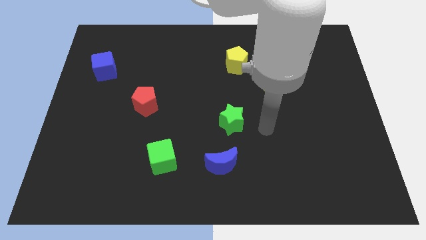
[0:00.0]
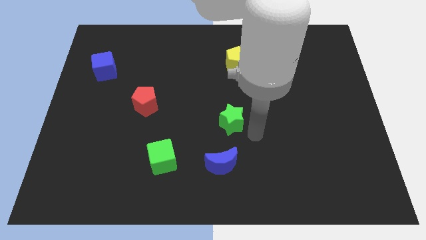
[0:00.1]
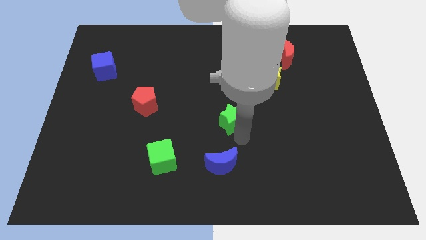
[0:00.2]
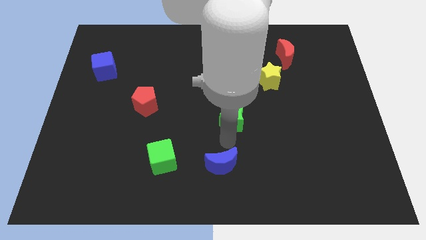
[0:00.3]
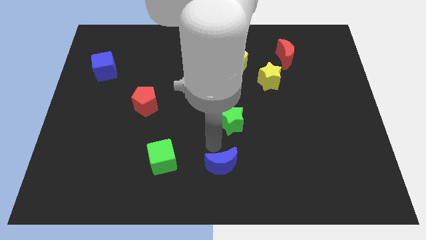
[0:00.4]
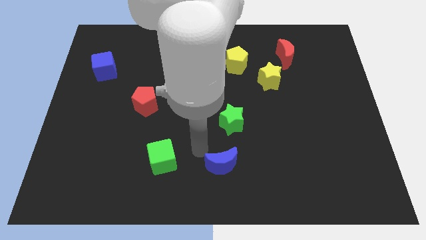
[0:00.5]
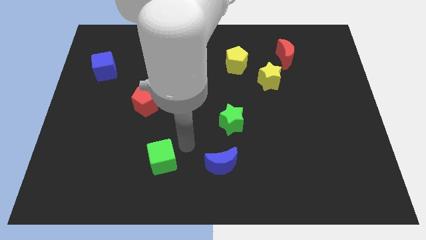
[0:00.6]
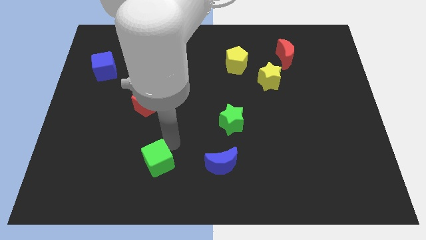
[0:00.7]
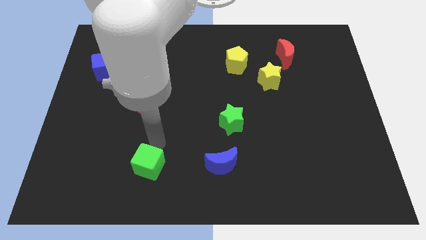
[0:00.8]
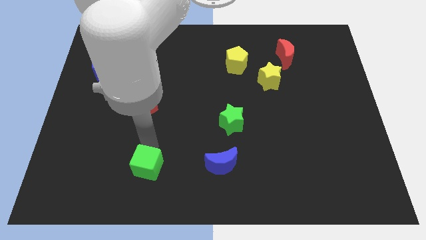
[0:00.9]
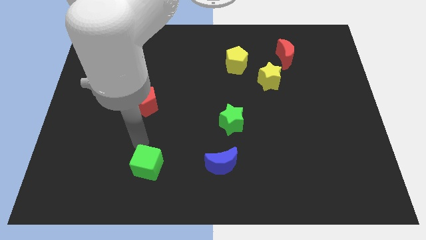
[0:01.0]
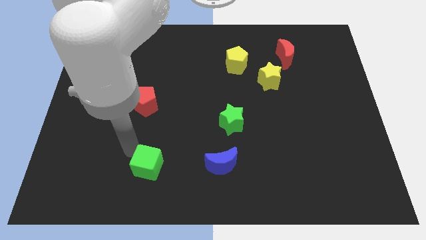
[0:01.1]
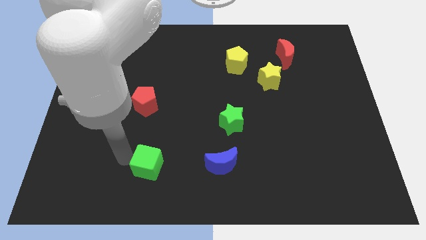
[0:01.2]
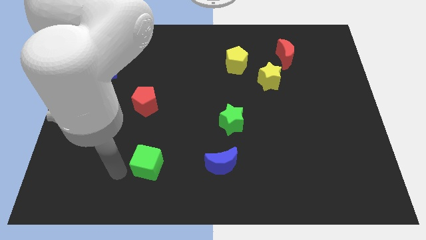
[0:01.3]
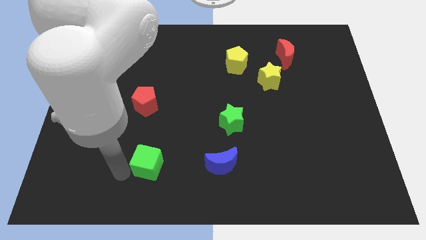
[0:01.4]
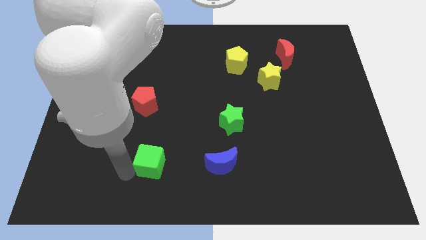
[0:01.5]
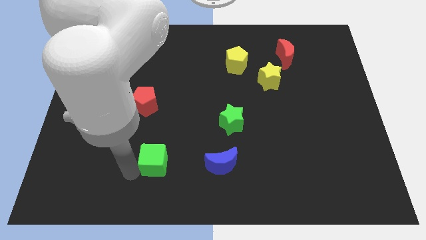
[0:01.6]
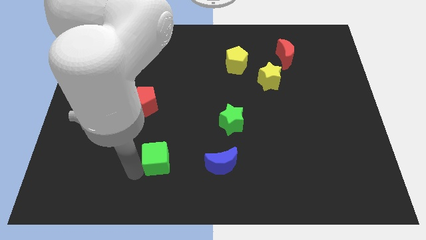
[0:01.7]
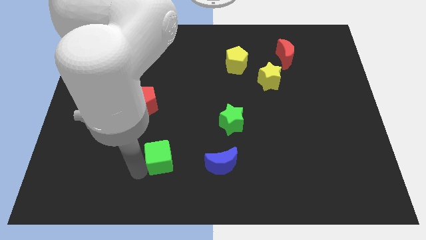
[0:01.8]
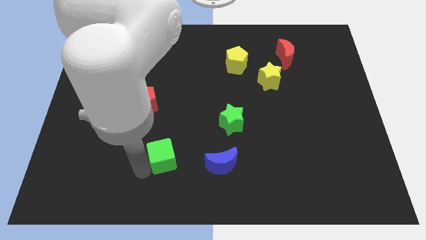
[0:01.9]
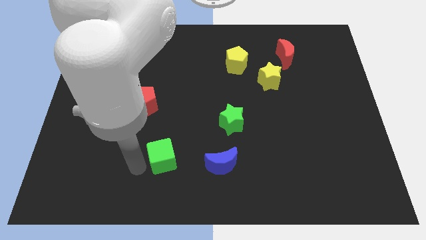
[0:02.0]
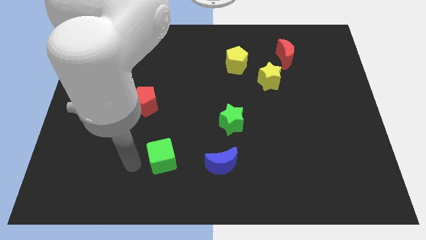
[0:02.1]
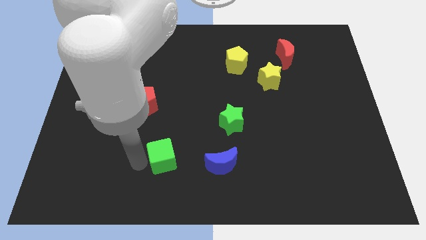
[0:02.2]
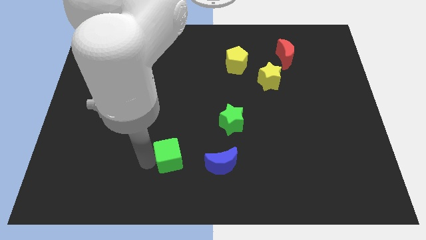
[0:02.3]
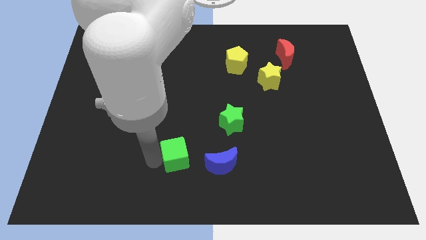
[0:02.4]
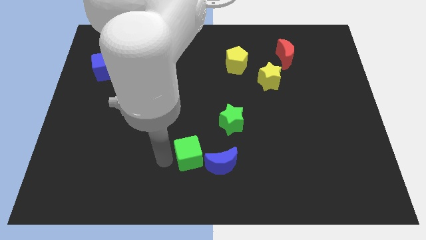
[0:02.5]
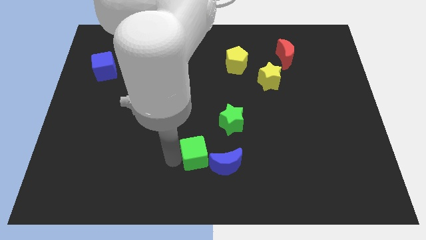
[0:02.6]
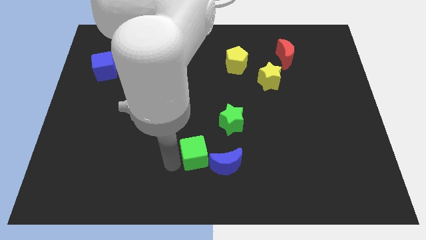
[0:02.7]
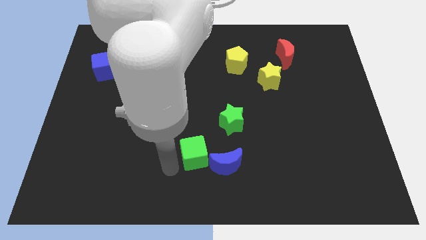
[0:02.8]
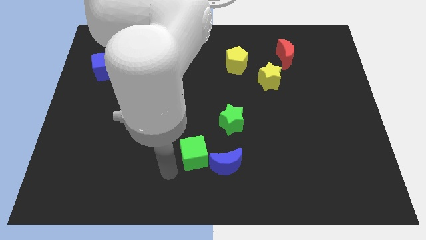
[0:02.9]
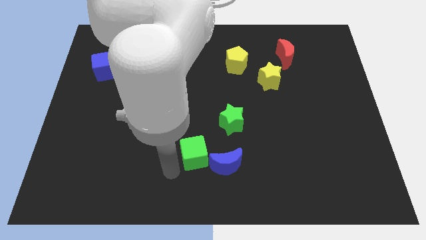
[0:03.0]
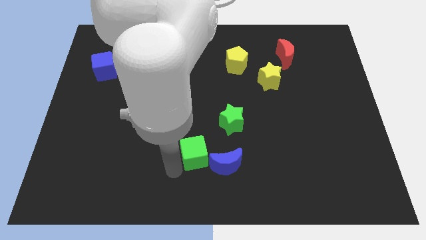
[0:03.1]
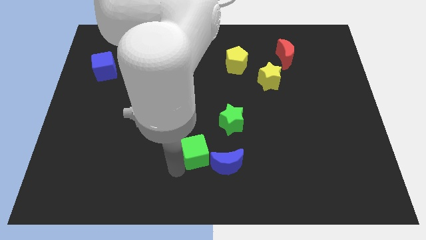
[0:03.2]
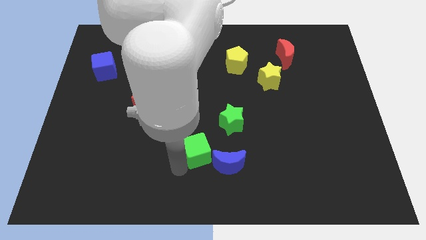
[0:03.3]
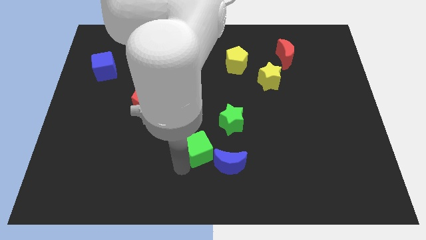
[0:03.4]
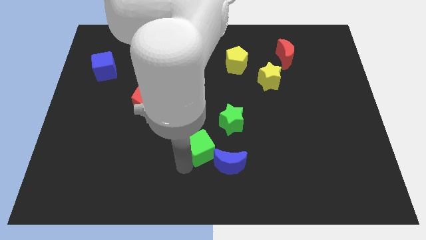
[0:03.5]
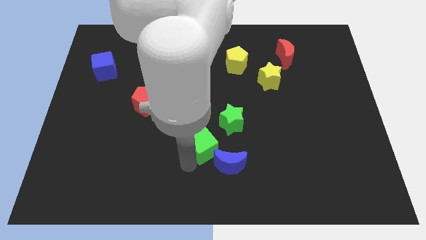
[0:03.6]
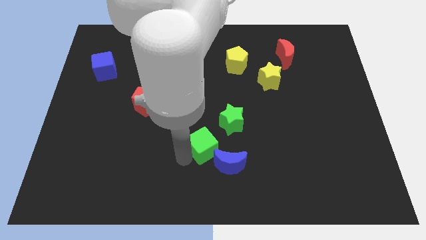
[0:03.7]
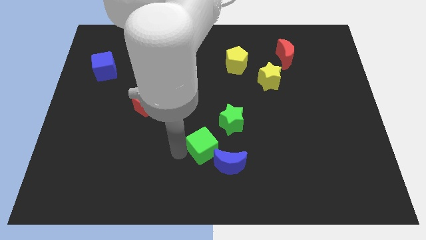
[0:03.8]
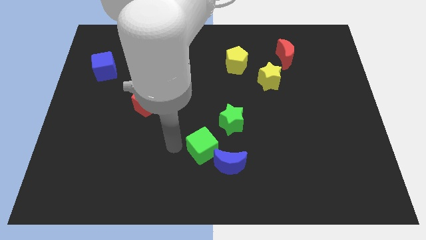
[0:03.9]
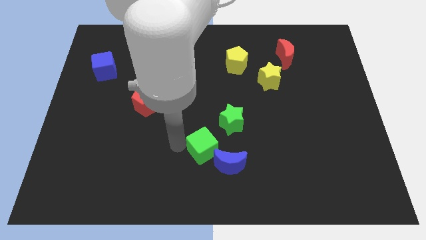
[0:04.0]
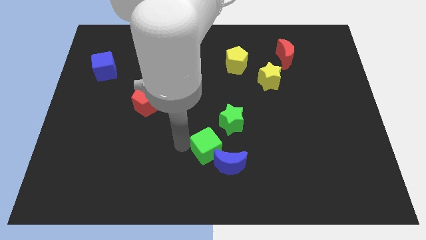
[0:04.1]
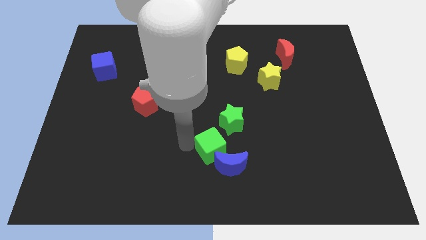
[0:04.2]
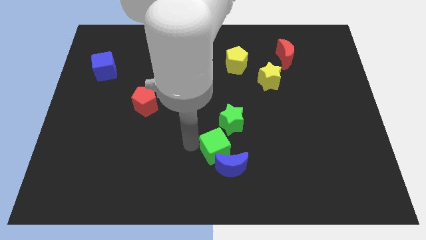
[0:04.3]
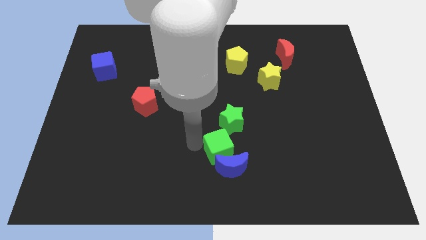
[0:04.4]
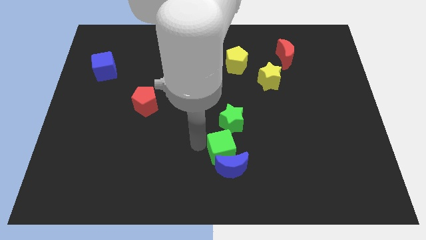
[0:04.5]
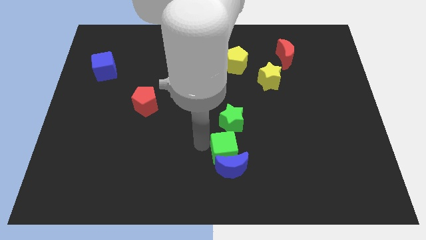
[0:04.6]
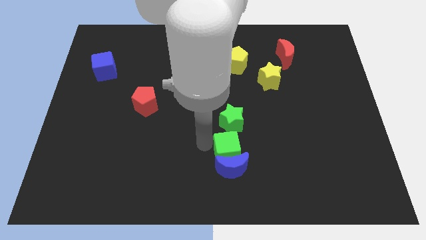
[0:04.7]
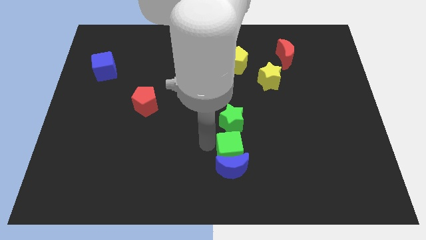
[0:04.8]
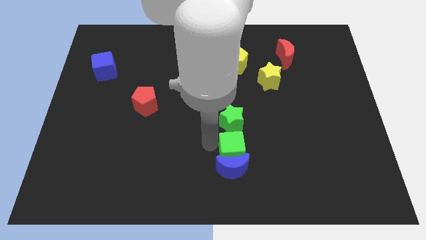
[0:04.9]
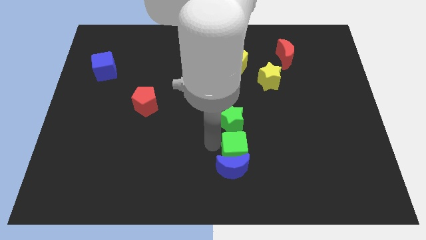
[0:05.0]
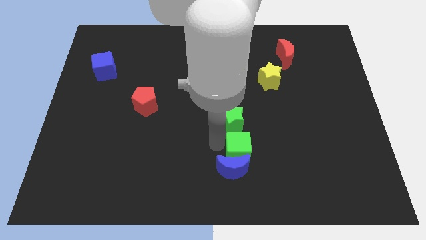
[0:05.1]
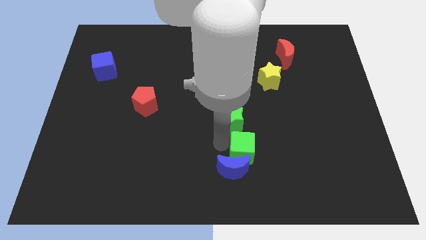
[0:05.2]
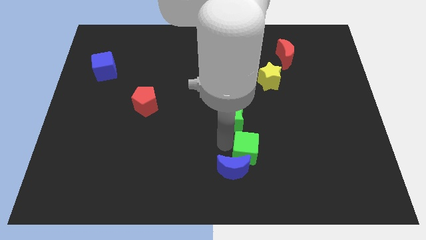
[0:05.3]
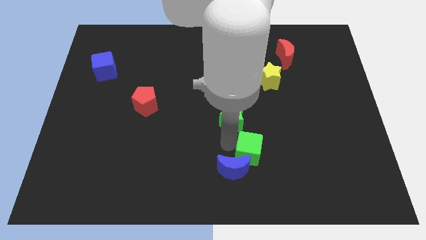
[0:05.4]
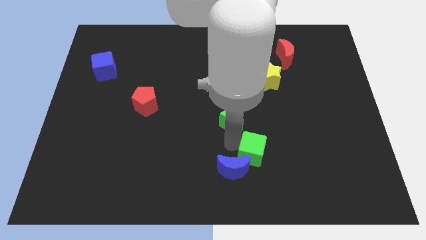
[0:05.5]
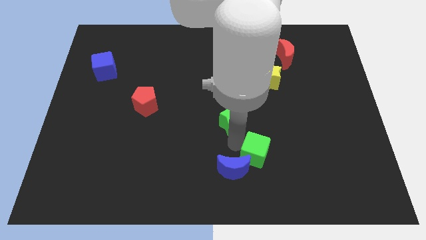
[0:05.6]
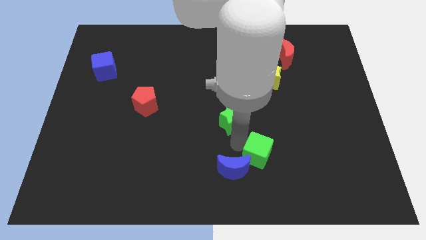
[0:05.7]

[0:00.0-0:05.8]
move the green cube right

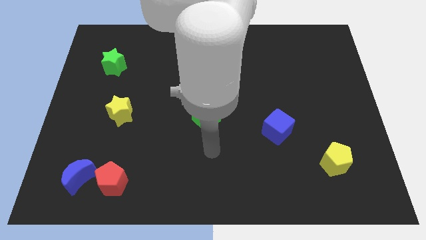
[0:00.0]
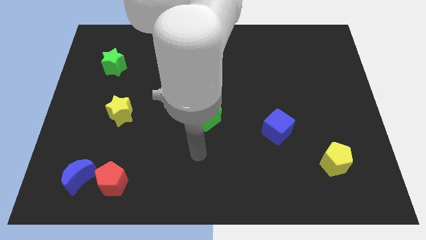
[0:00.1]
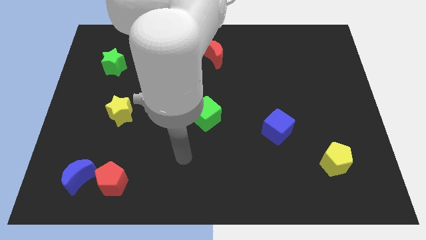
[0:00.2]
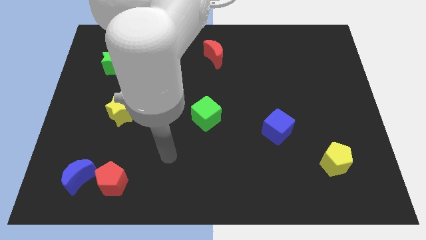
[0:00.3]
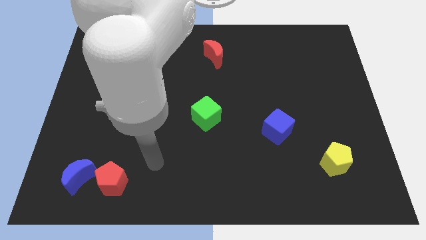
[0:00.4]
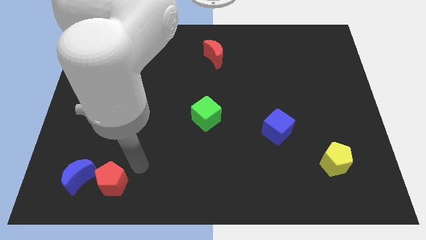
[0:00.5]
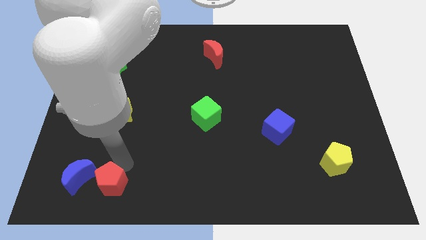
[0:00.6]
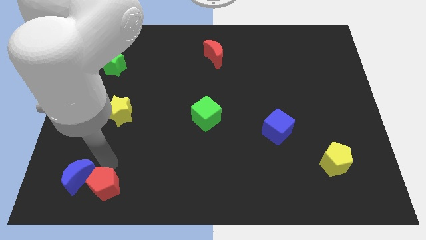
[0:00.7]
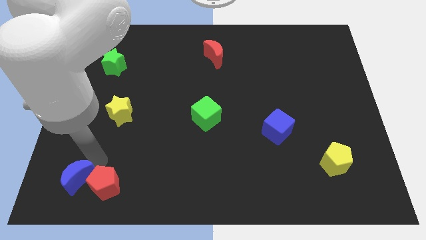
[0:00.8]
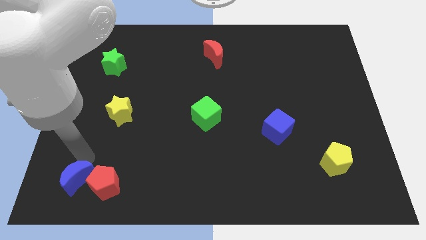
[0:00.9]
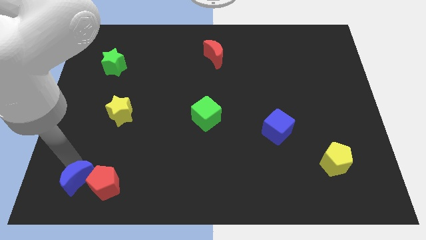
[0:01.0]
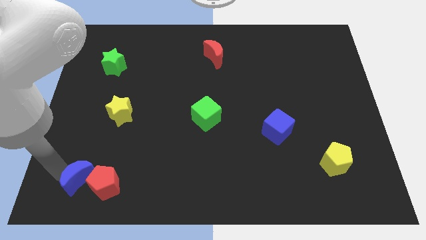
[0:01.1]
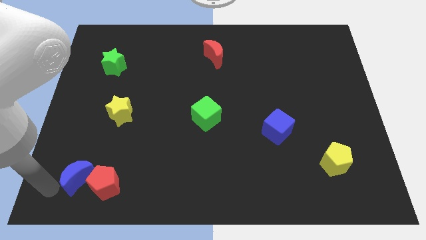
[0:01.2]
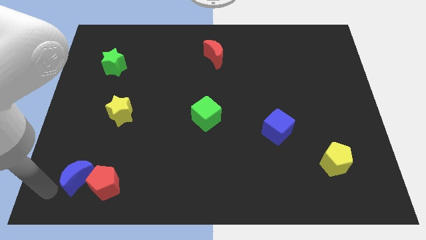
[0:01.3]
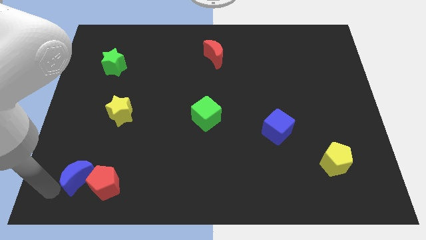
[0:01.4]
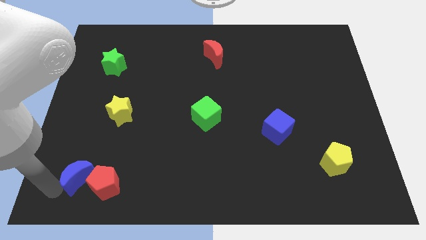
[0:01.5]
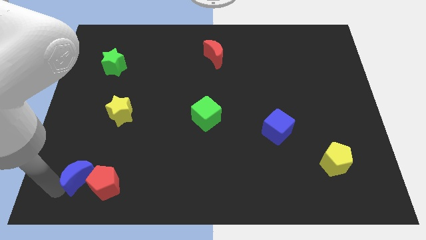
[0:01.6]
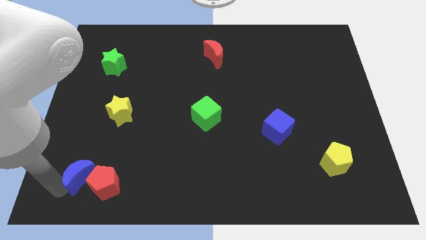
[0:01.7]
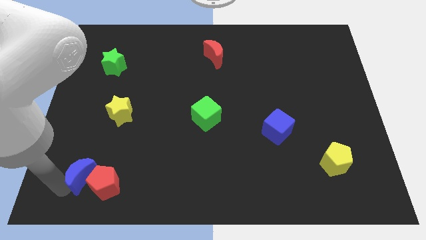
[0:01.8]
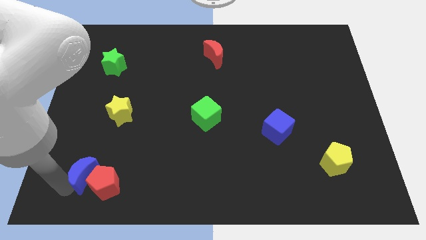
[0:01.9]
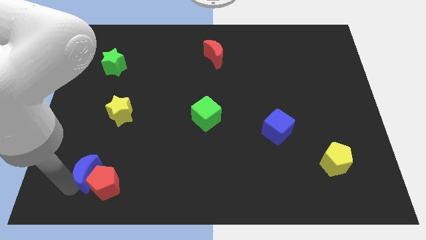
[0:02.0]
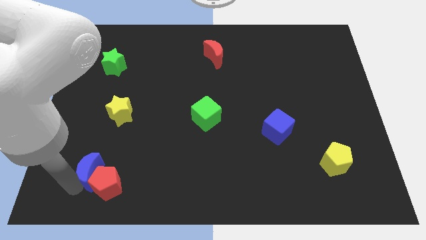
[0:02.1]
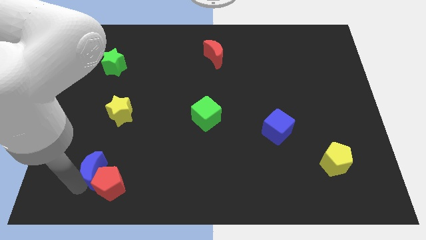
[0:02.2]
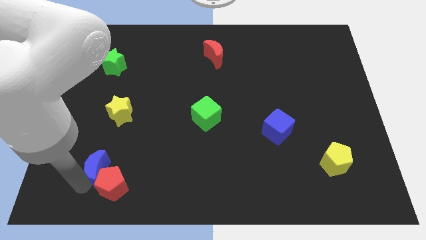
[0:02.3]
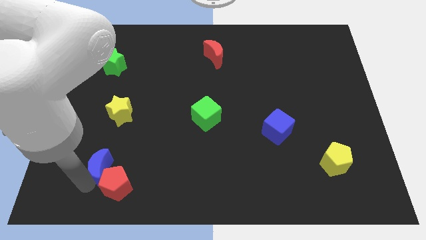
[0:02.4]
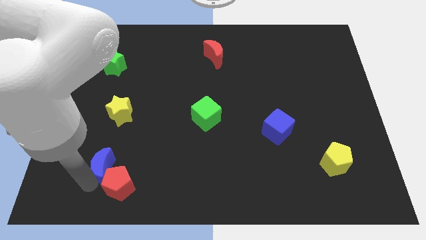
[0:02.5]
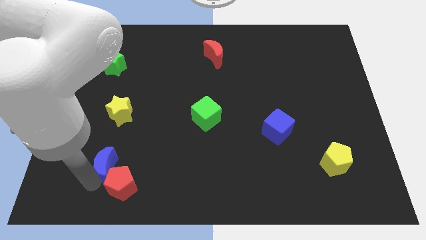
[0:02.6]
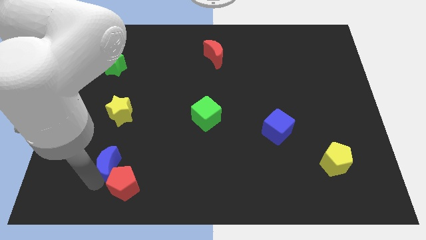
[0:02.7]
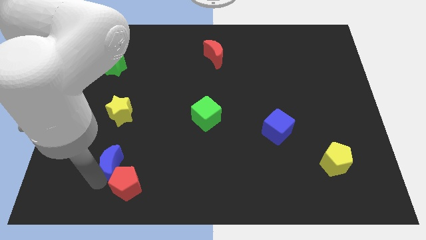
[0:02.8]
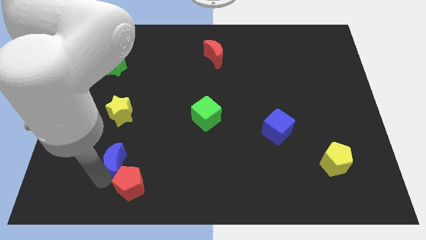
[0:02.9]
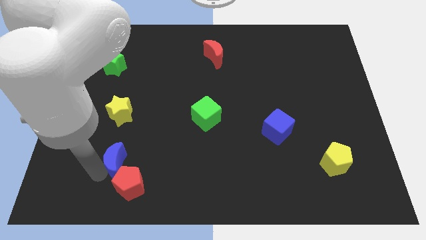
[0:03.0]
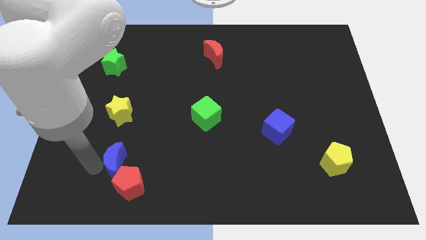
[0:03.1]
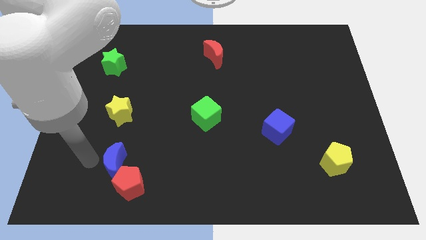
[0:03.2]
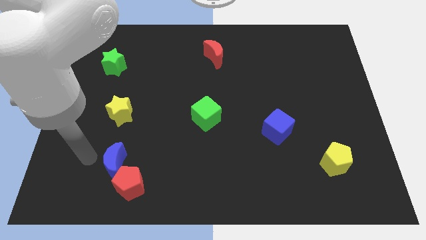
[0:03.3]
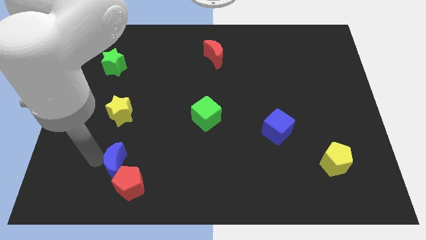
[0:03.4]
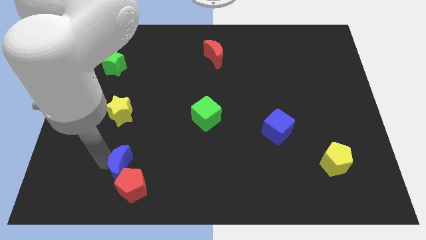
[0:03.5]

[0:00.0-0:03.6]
slightly move the blue moon right
